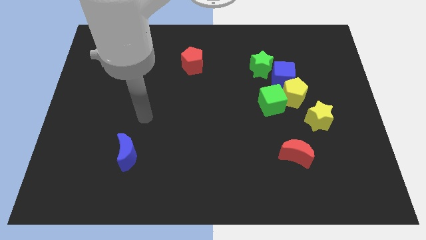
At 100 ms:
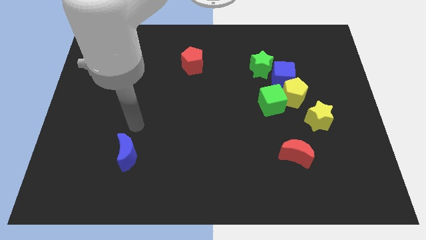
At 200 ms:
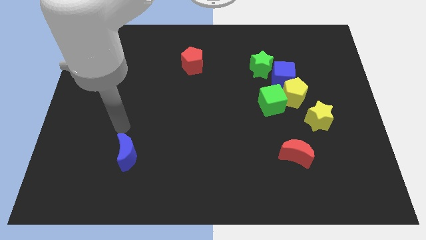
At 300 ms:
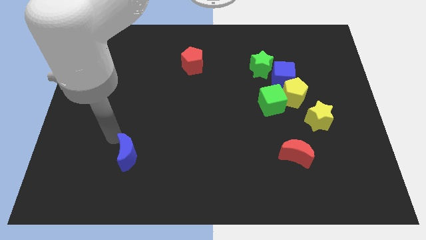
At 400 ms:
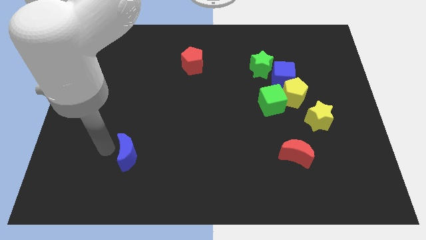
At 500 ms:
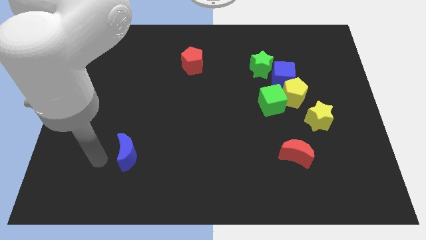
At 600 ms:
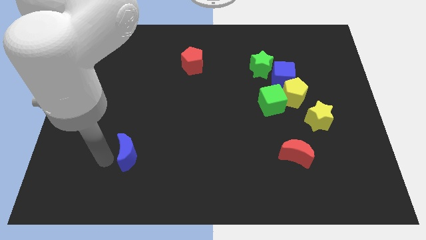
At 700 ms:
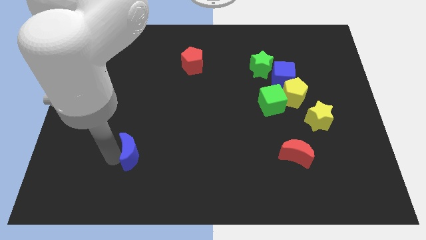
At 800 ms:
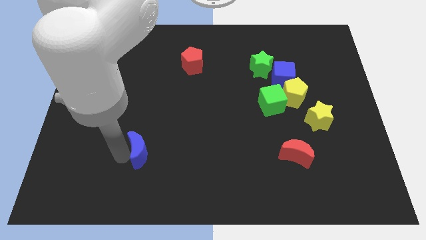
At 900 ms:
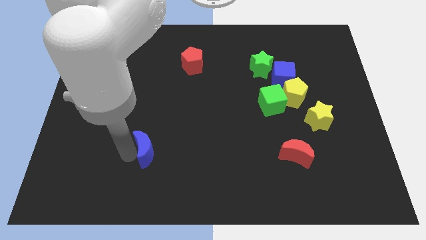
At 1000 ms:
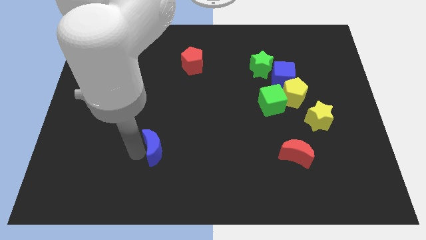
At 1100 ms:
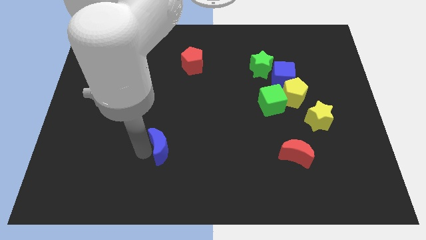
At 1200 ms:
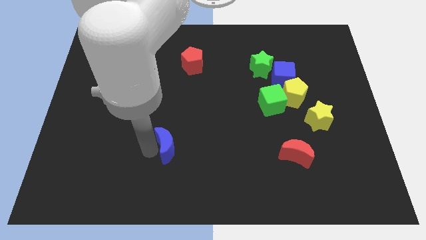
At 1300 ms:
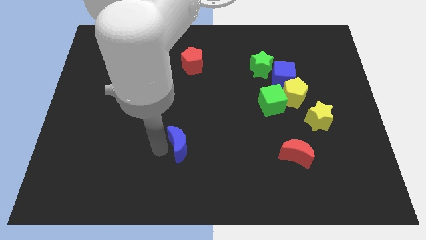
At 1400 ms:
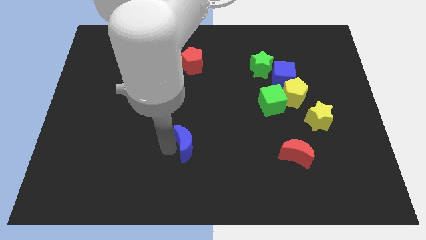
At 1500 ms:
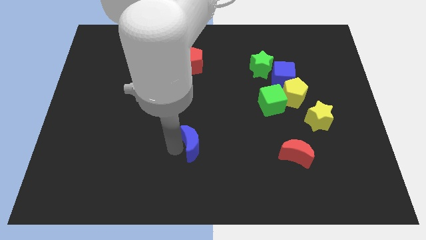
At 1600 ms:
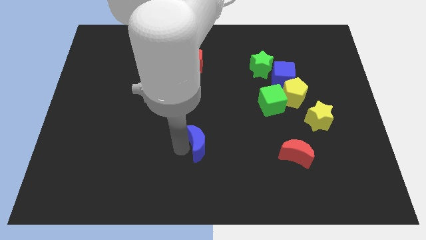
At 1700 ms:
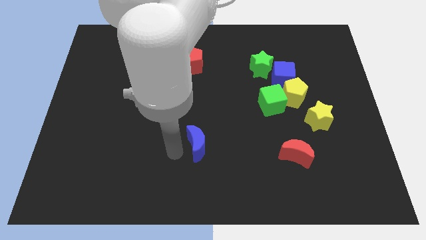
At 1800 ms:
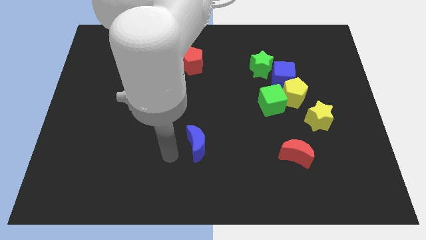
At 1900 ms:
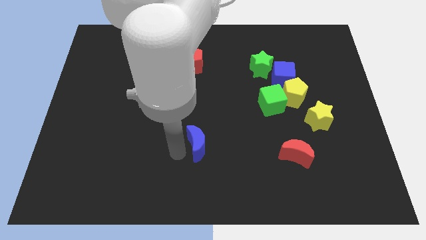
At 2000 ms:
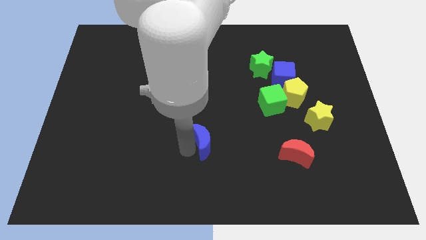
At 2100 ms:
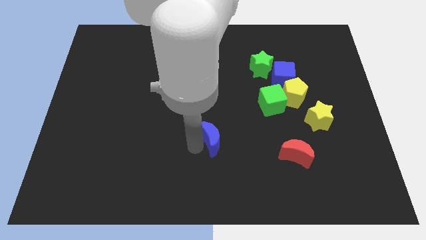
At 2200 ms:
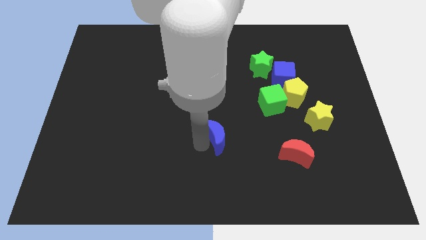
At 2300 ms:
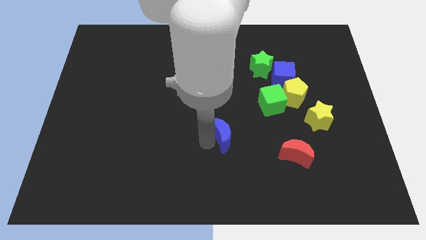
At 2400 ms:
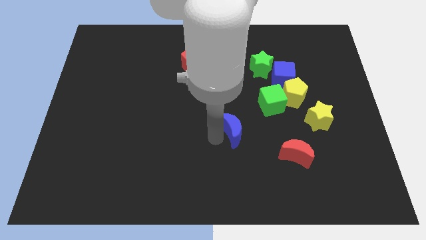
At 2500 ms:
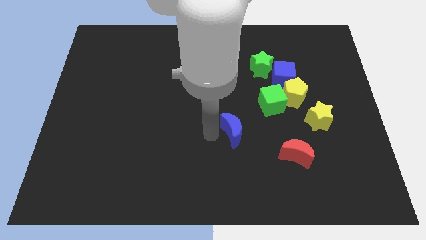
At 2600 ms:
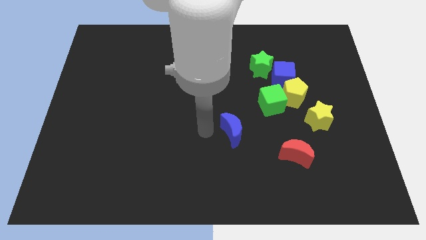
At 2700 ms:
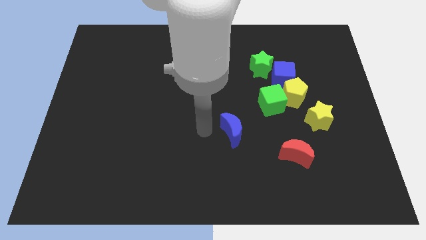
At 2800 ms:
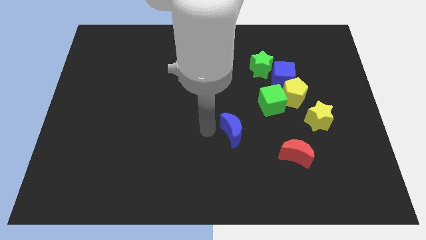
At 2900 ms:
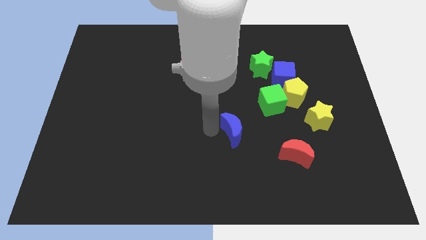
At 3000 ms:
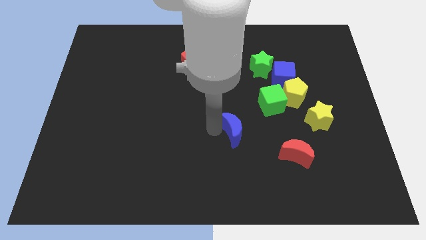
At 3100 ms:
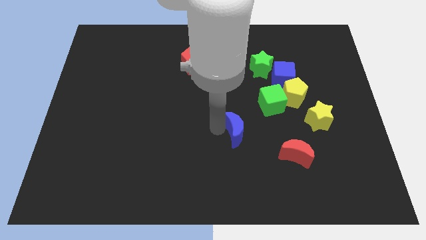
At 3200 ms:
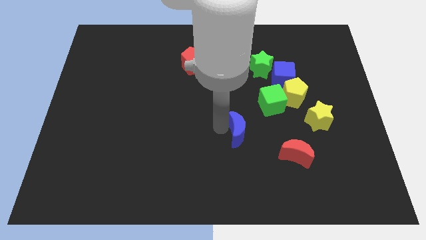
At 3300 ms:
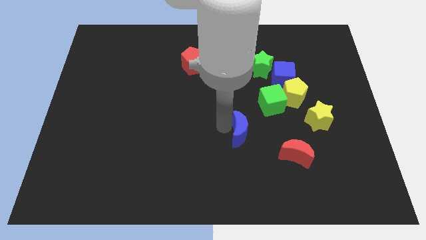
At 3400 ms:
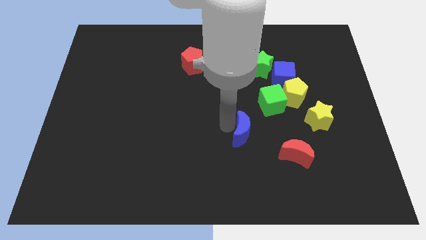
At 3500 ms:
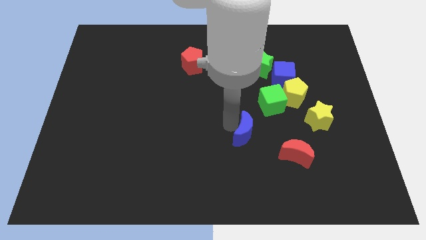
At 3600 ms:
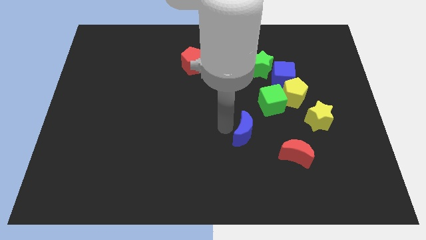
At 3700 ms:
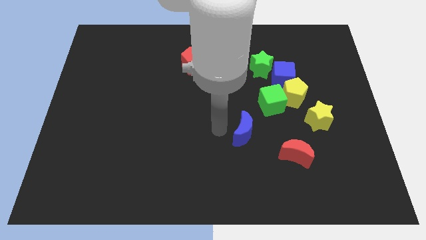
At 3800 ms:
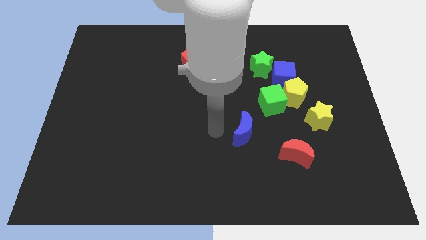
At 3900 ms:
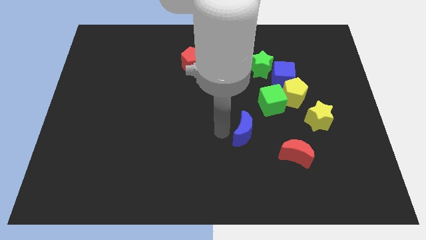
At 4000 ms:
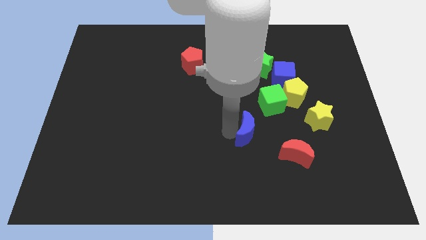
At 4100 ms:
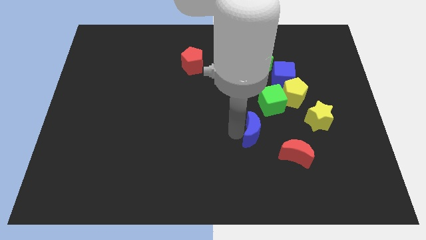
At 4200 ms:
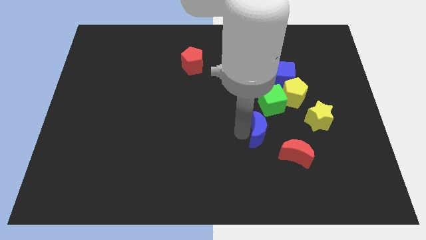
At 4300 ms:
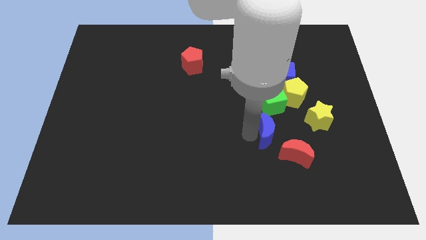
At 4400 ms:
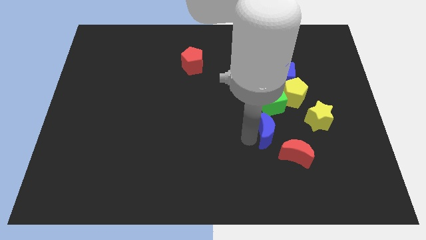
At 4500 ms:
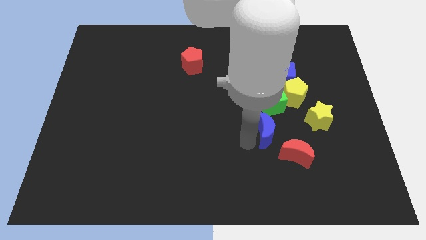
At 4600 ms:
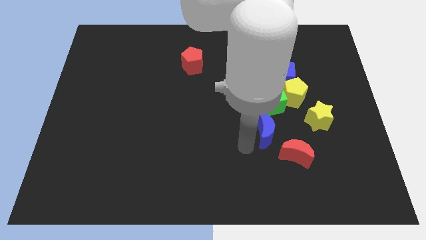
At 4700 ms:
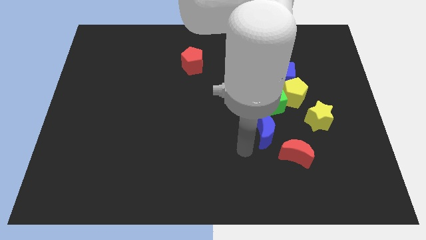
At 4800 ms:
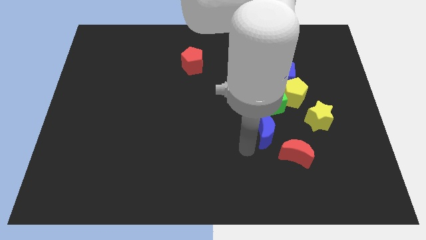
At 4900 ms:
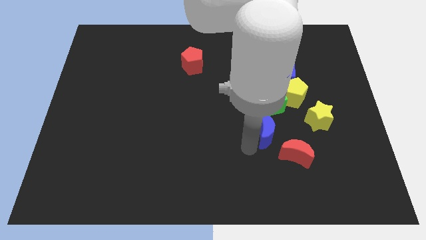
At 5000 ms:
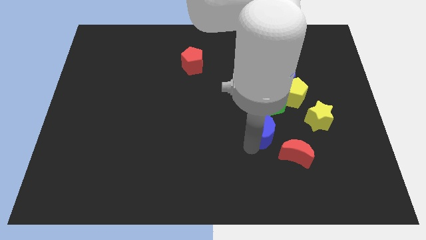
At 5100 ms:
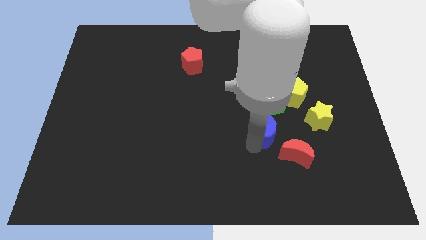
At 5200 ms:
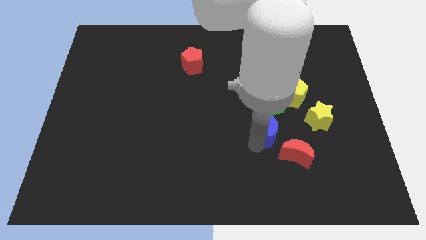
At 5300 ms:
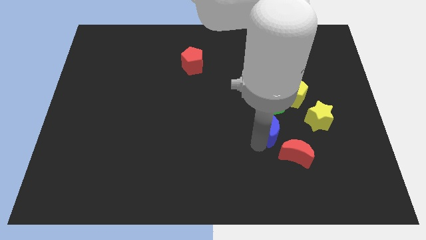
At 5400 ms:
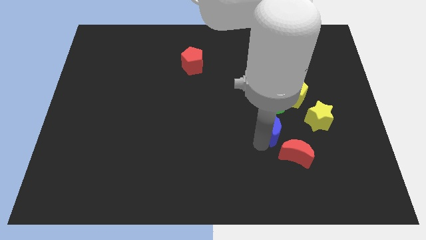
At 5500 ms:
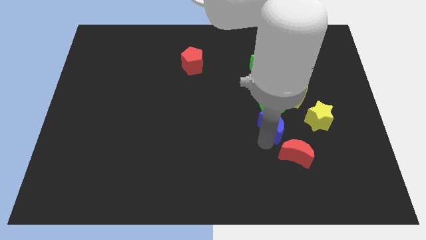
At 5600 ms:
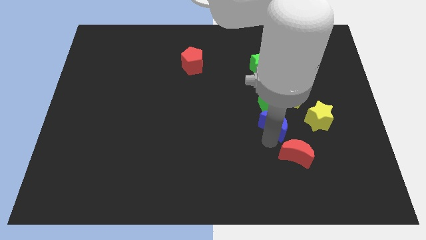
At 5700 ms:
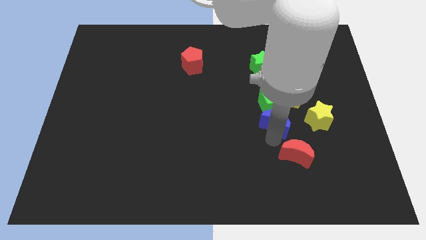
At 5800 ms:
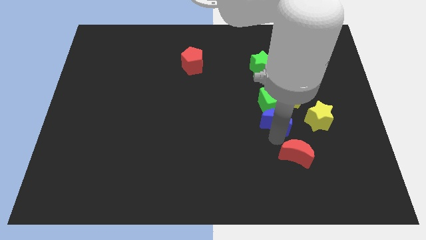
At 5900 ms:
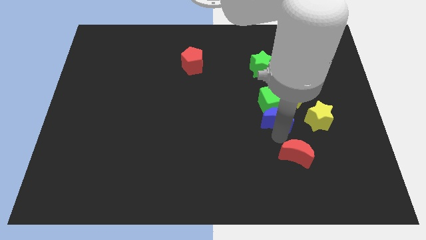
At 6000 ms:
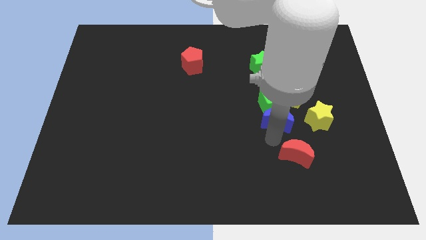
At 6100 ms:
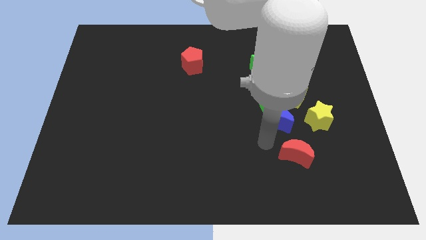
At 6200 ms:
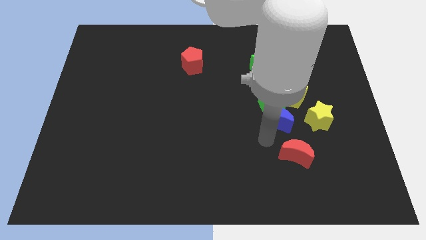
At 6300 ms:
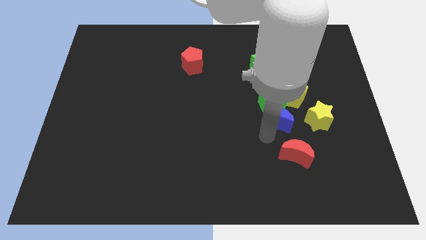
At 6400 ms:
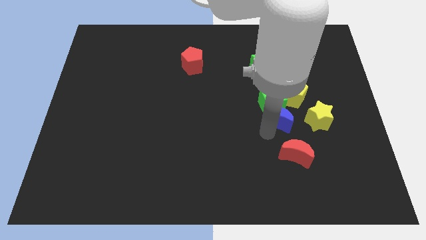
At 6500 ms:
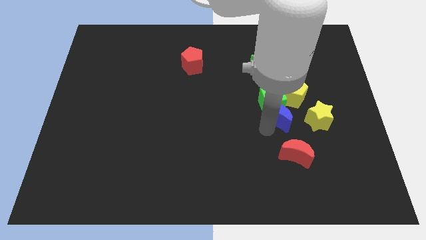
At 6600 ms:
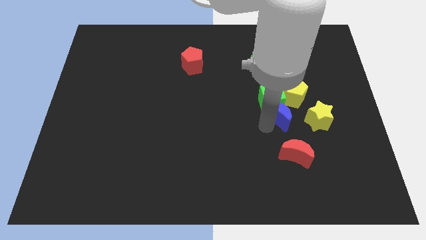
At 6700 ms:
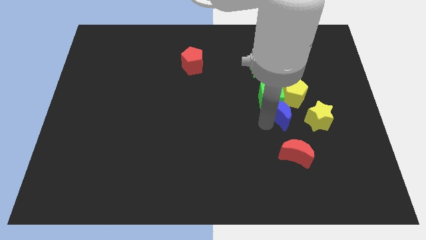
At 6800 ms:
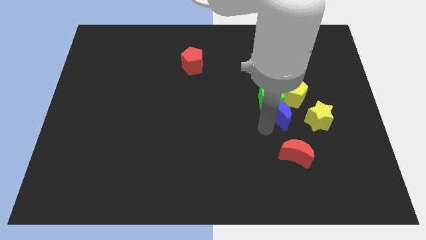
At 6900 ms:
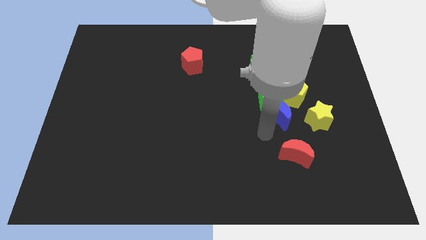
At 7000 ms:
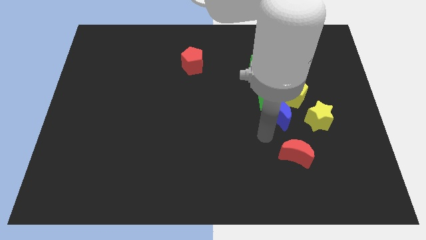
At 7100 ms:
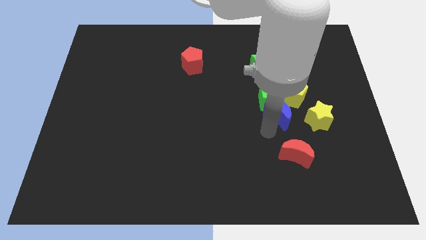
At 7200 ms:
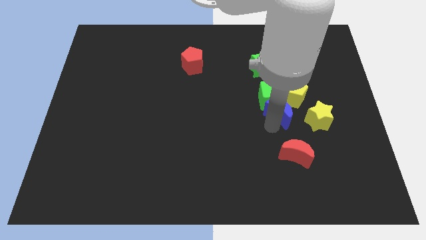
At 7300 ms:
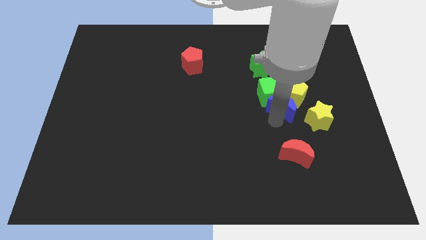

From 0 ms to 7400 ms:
slide the blue moon towards the yellow pentagon
